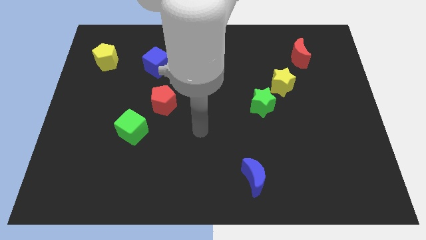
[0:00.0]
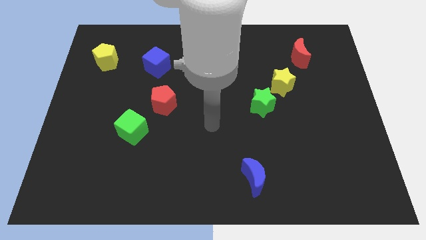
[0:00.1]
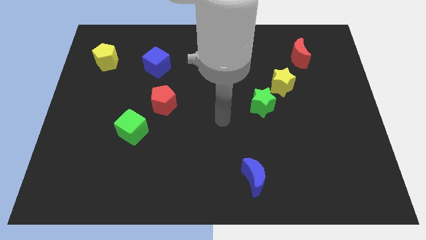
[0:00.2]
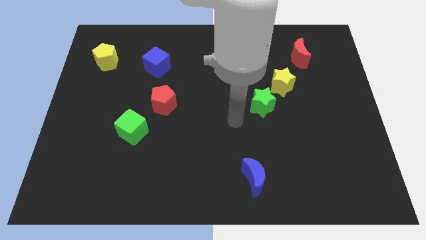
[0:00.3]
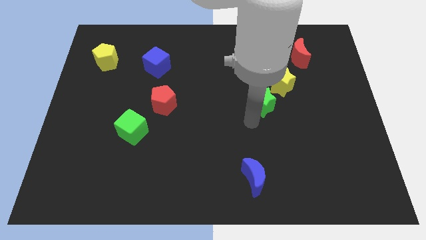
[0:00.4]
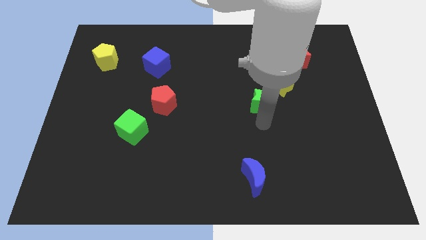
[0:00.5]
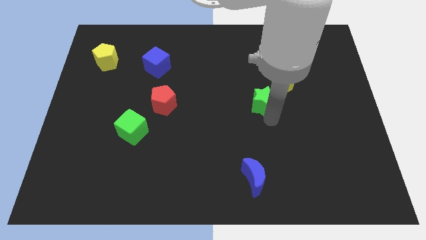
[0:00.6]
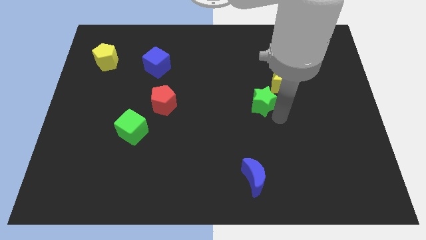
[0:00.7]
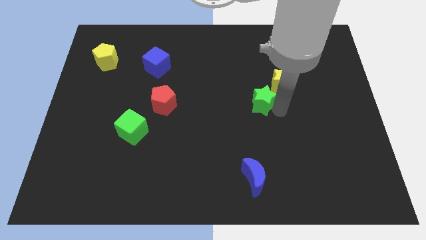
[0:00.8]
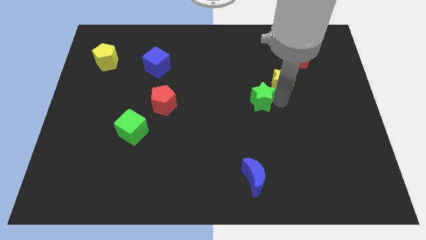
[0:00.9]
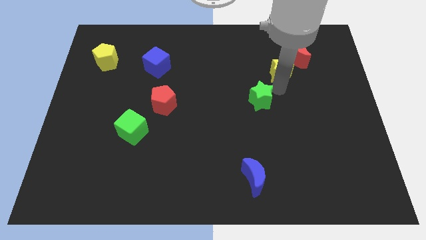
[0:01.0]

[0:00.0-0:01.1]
move the green star away from the yellow star

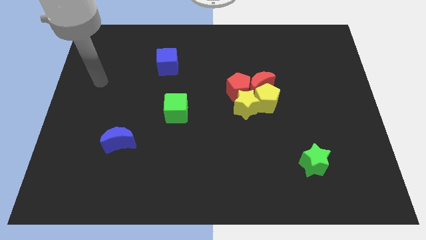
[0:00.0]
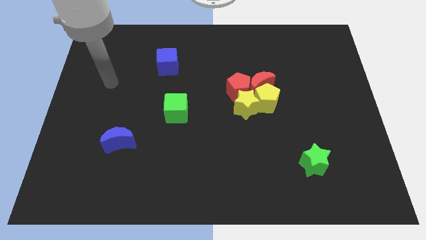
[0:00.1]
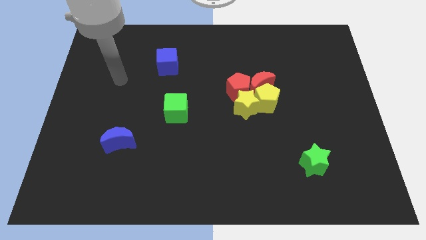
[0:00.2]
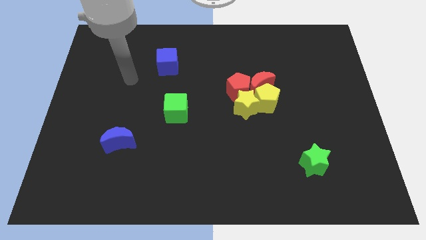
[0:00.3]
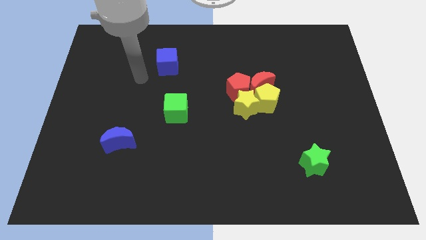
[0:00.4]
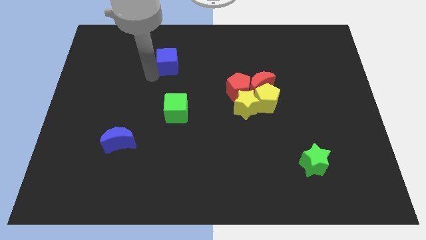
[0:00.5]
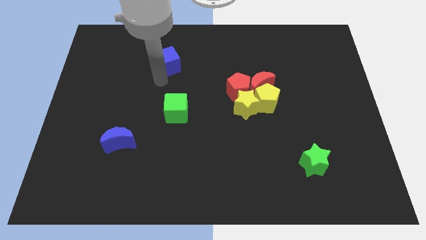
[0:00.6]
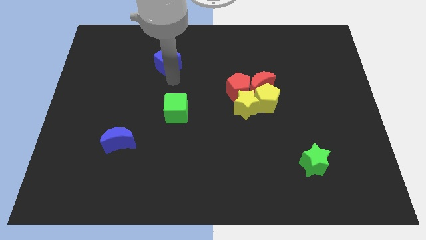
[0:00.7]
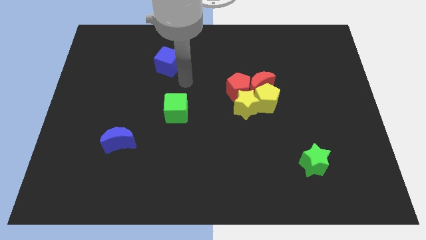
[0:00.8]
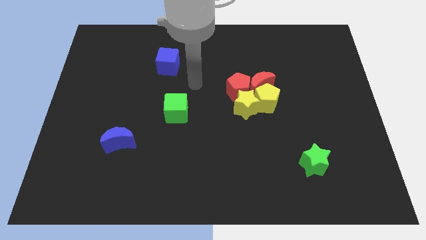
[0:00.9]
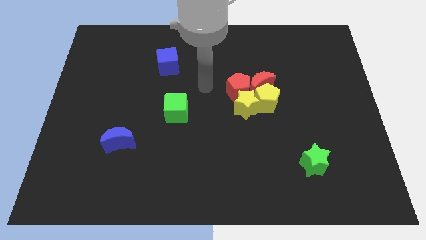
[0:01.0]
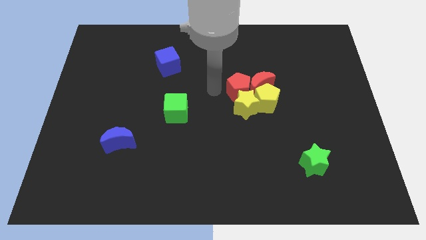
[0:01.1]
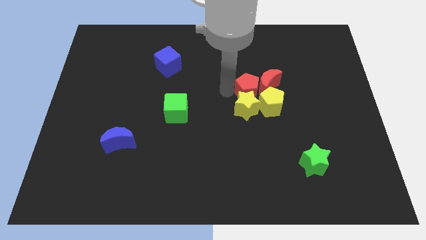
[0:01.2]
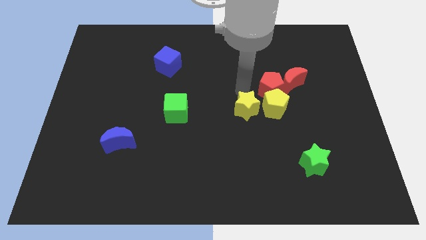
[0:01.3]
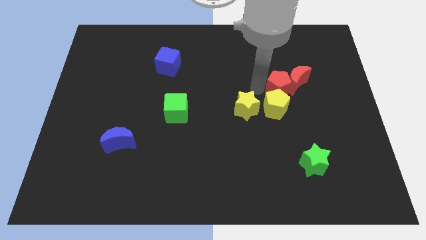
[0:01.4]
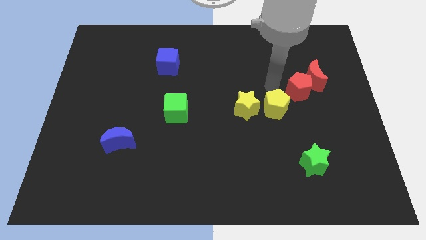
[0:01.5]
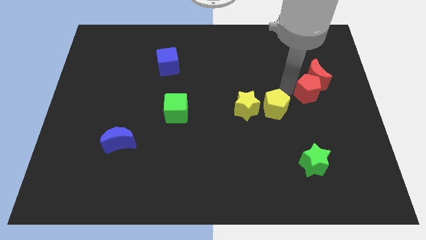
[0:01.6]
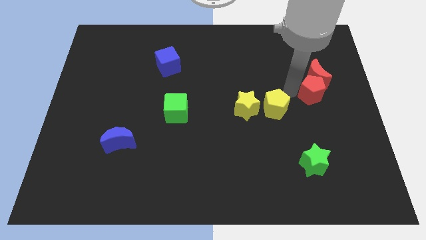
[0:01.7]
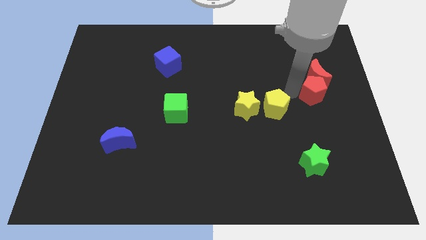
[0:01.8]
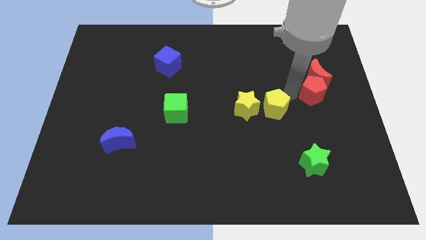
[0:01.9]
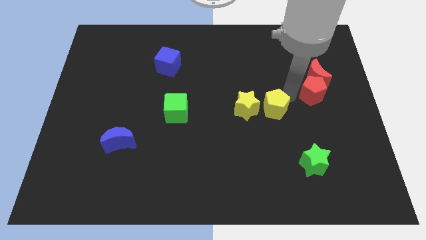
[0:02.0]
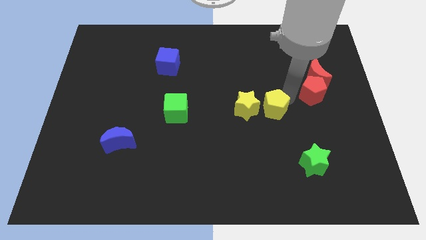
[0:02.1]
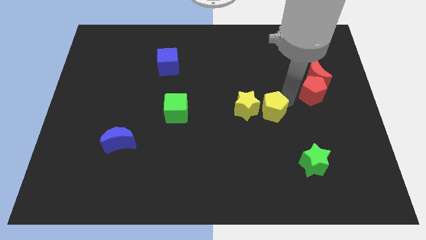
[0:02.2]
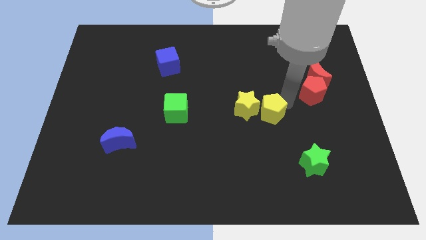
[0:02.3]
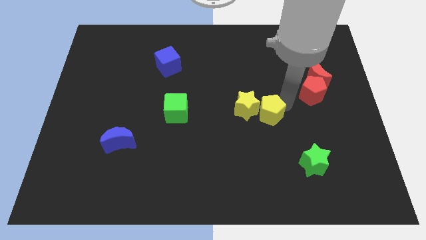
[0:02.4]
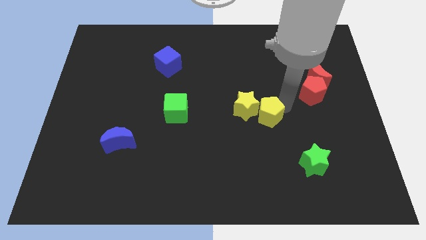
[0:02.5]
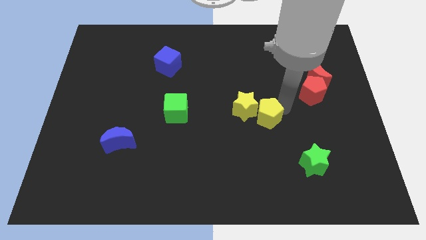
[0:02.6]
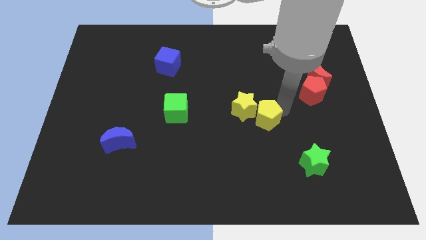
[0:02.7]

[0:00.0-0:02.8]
separate the yellow pentagon from the red moon, yellow star, and red pentagon

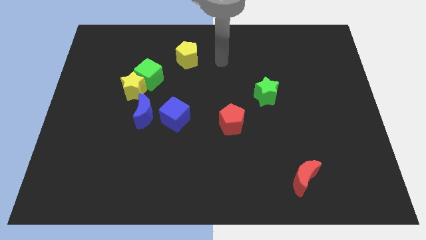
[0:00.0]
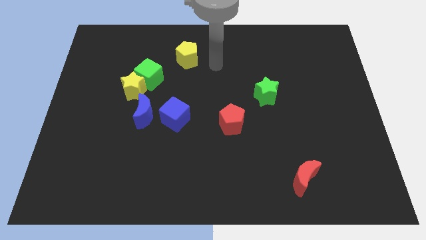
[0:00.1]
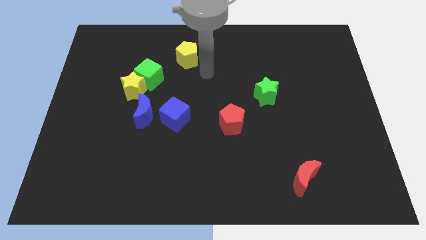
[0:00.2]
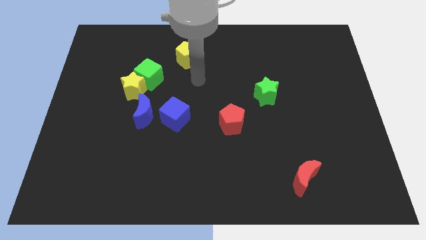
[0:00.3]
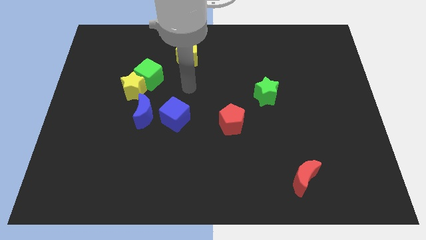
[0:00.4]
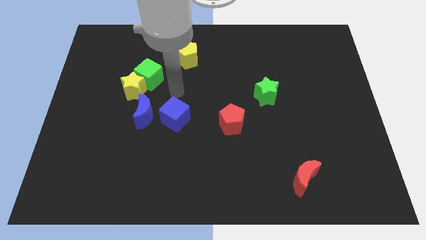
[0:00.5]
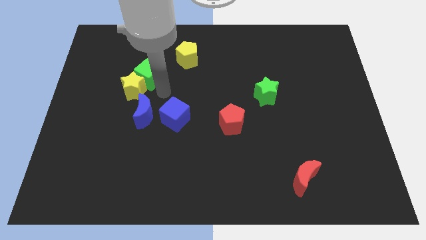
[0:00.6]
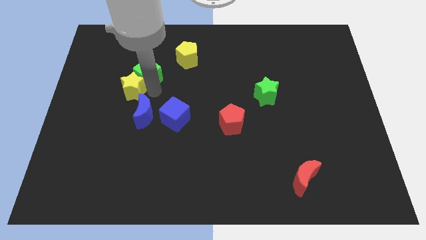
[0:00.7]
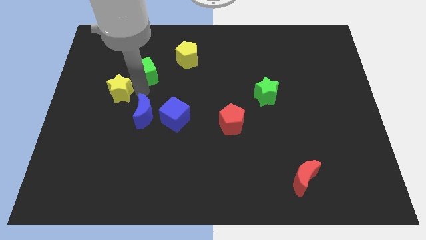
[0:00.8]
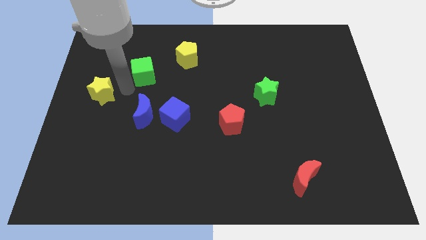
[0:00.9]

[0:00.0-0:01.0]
pull the green cube apart from the yellow star

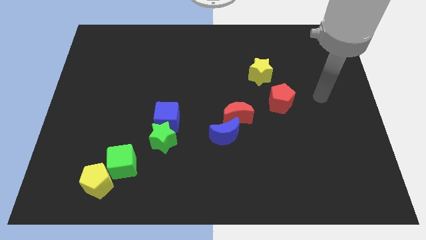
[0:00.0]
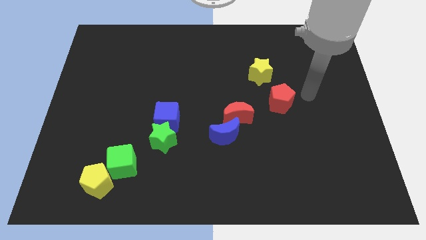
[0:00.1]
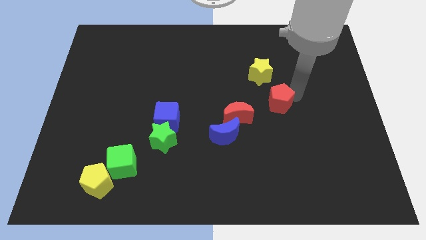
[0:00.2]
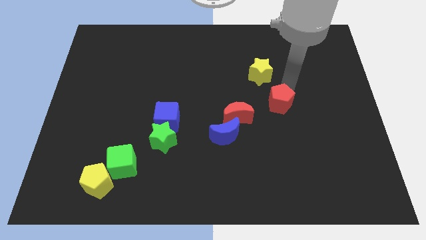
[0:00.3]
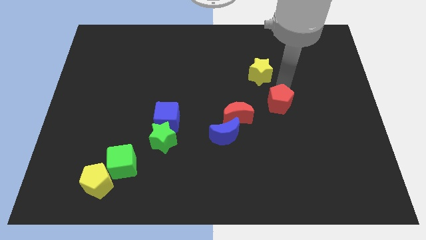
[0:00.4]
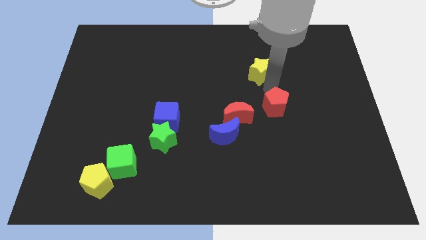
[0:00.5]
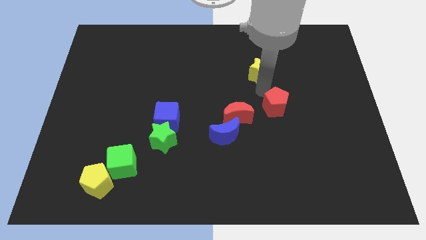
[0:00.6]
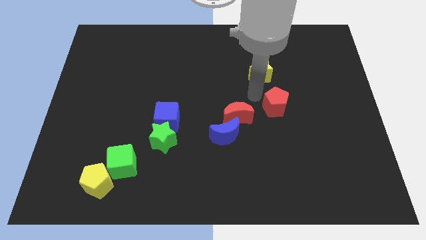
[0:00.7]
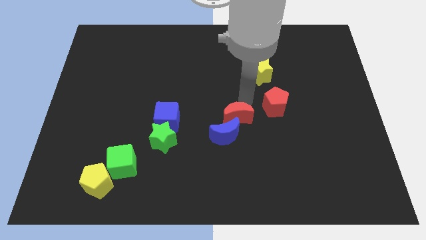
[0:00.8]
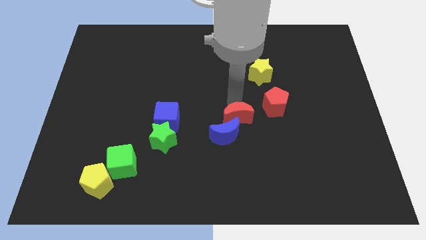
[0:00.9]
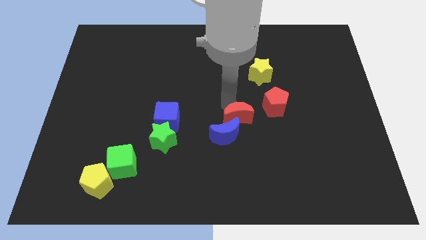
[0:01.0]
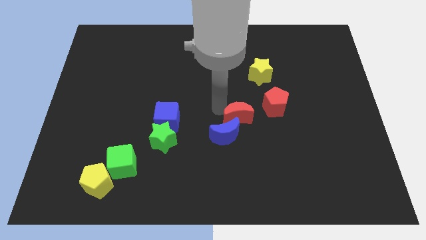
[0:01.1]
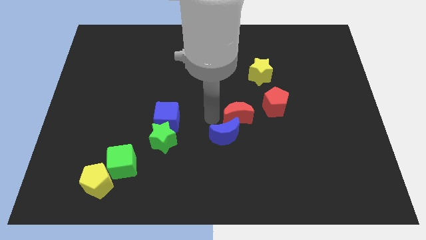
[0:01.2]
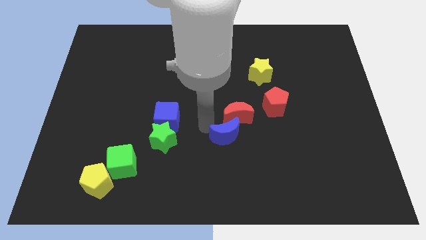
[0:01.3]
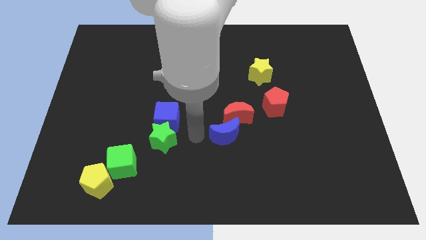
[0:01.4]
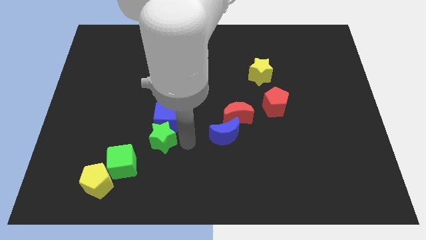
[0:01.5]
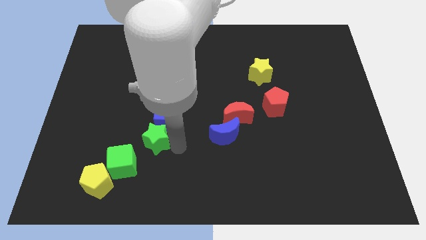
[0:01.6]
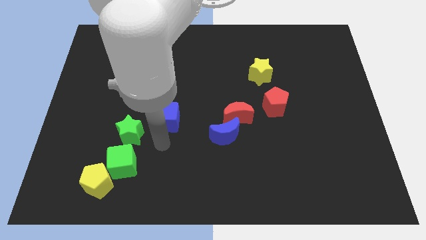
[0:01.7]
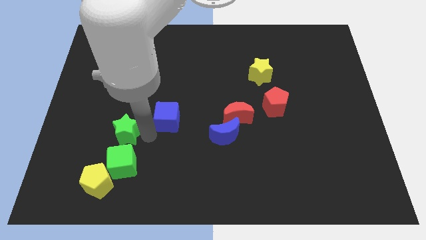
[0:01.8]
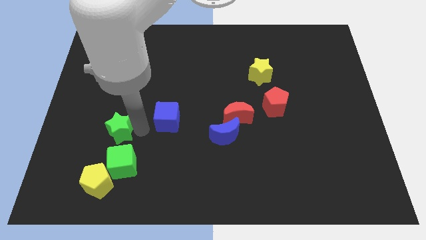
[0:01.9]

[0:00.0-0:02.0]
pull the blue cube apart from the green star

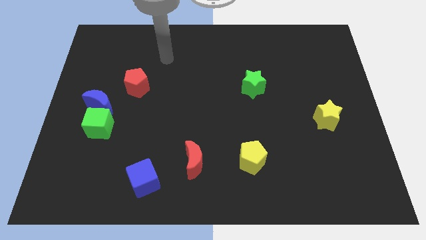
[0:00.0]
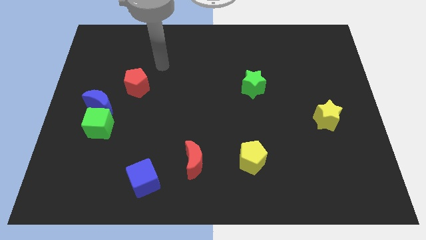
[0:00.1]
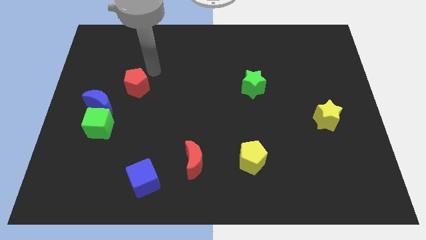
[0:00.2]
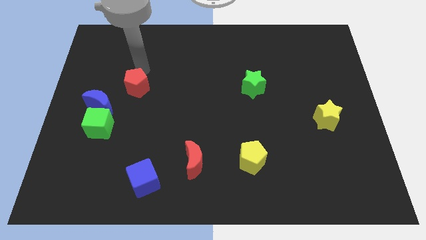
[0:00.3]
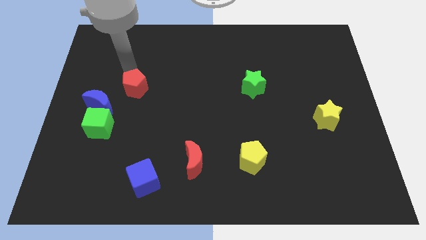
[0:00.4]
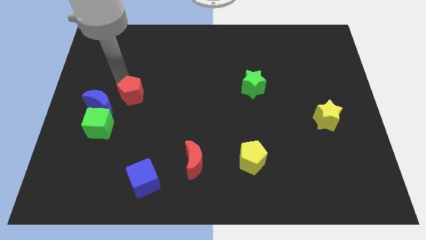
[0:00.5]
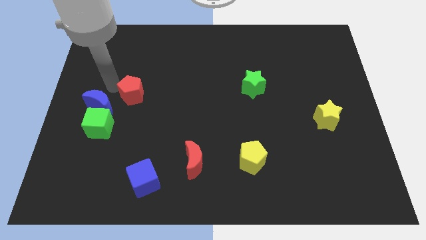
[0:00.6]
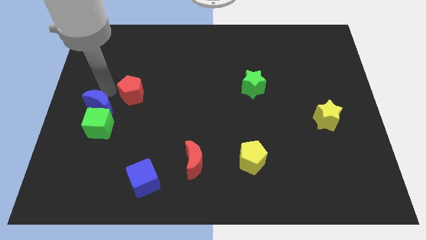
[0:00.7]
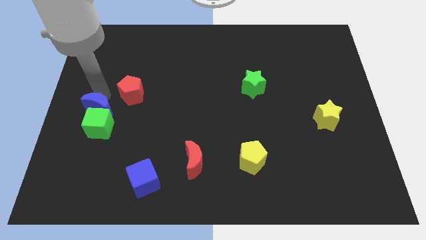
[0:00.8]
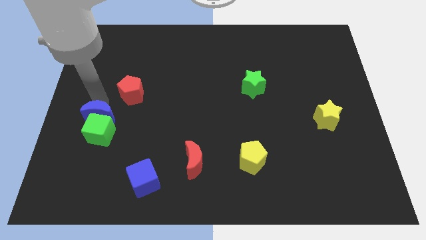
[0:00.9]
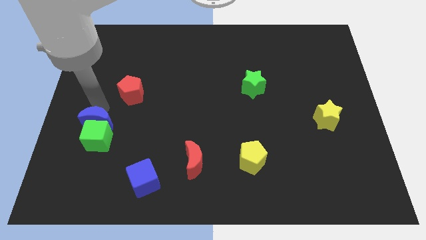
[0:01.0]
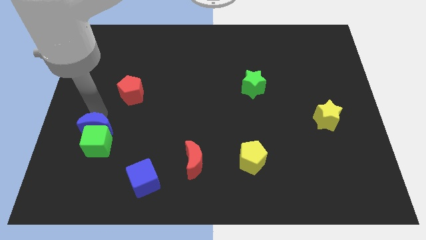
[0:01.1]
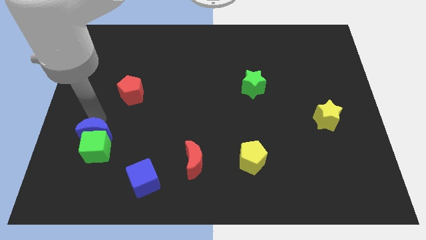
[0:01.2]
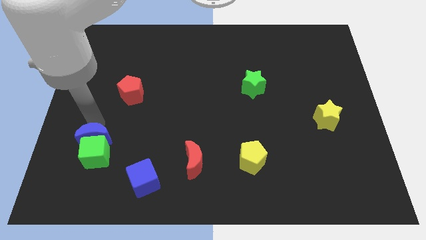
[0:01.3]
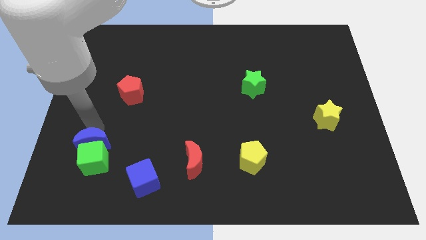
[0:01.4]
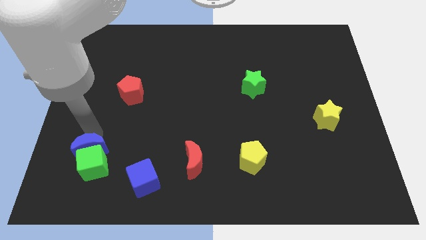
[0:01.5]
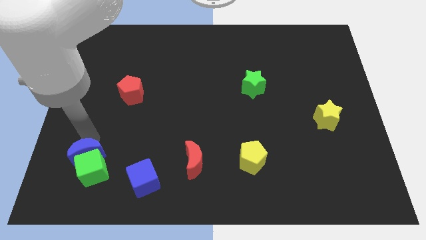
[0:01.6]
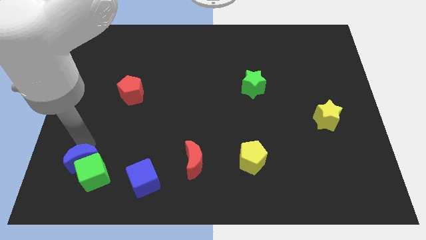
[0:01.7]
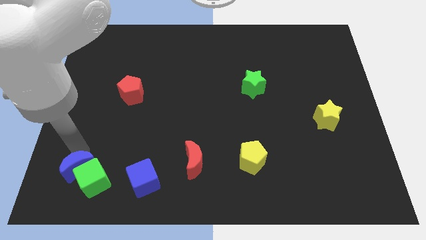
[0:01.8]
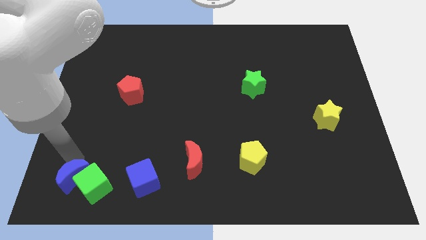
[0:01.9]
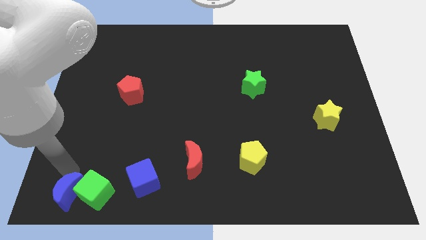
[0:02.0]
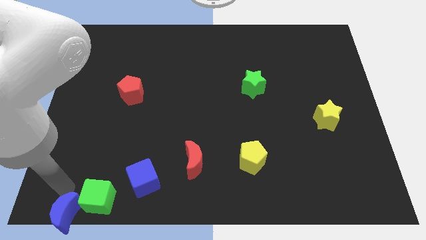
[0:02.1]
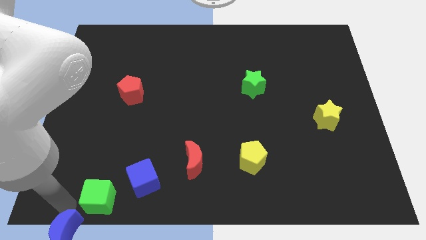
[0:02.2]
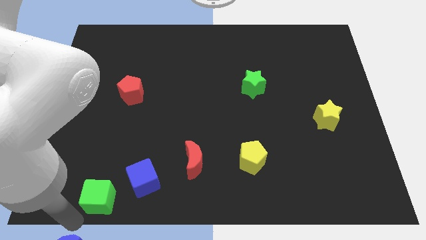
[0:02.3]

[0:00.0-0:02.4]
separate the green cube from the blue moon

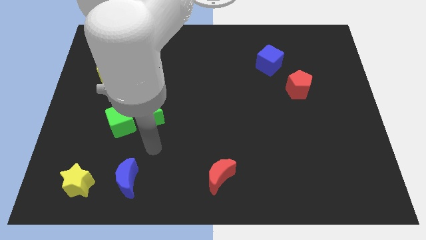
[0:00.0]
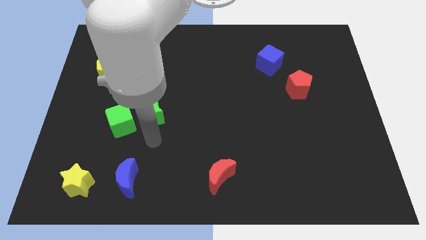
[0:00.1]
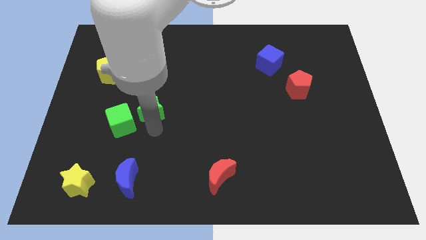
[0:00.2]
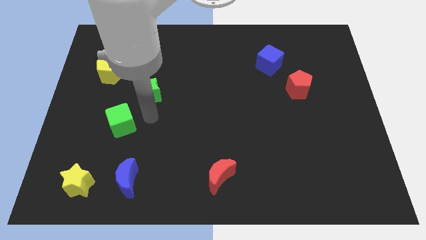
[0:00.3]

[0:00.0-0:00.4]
pull the green cube apart from the green star
